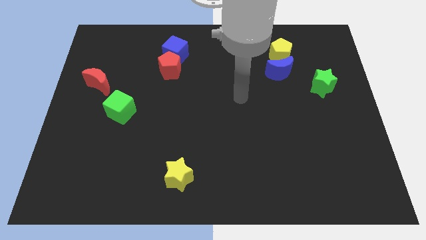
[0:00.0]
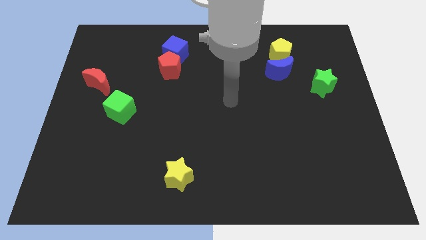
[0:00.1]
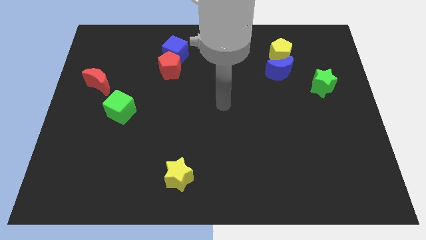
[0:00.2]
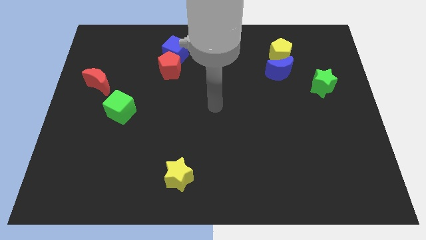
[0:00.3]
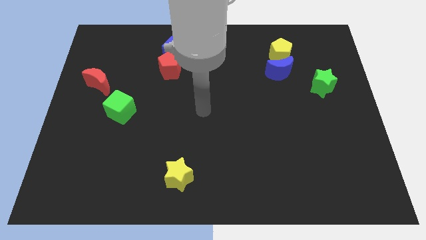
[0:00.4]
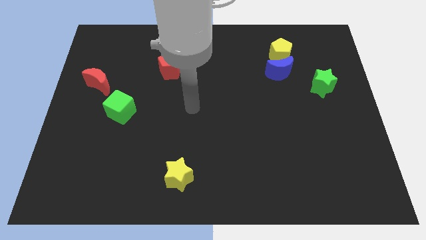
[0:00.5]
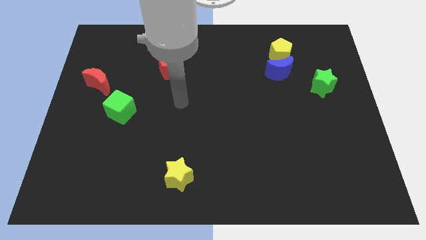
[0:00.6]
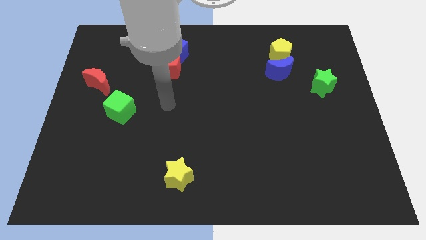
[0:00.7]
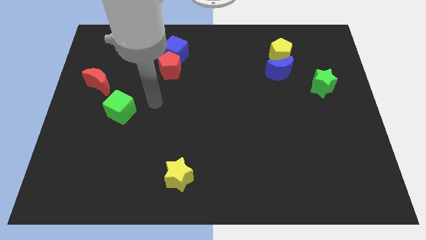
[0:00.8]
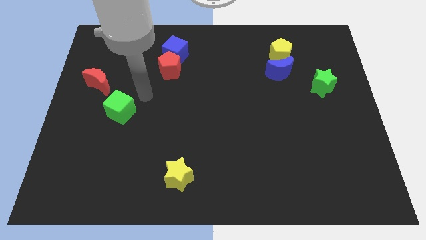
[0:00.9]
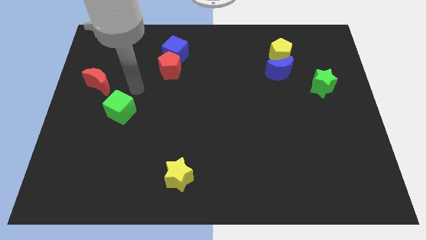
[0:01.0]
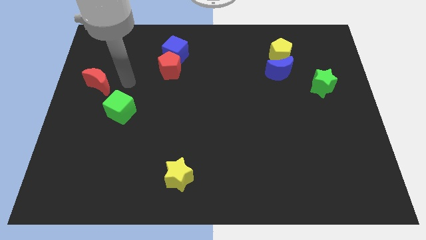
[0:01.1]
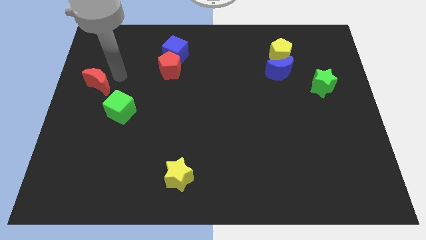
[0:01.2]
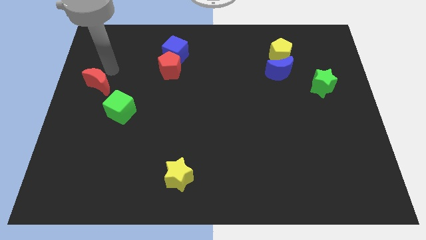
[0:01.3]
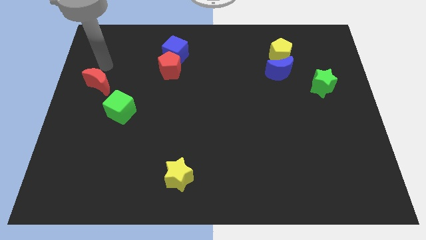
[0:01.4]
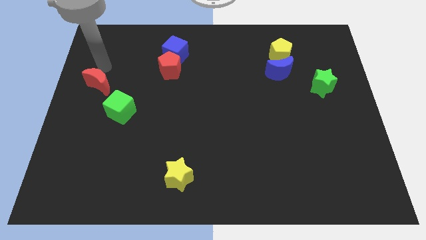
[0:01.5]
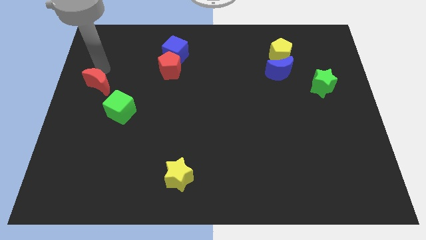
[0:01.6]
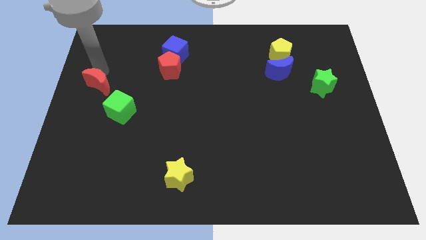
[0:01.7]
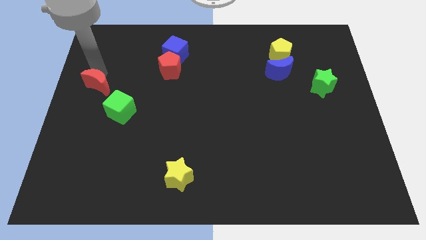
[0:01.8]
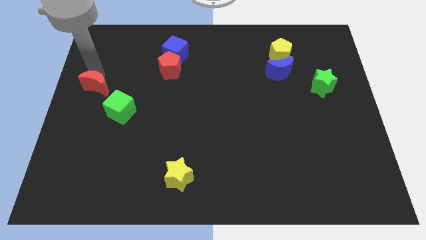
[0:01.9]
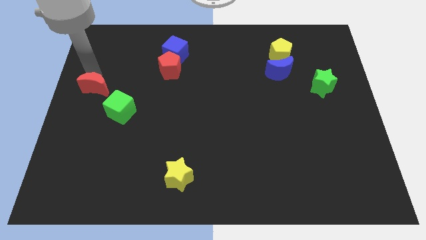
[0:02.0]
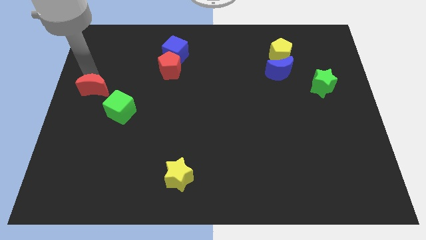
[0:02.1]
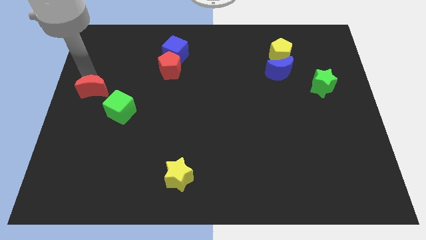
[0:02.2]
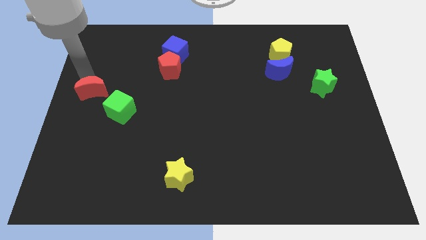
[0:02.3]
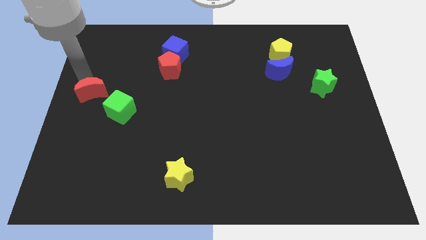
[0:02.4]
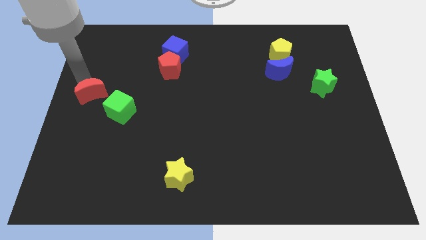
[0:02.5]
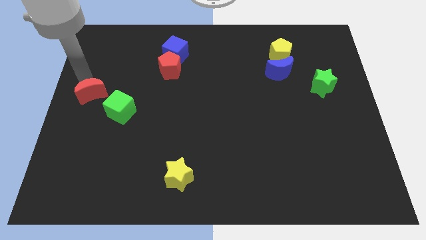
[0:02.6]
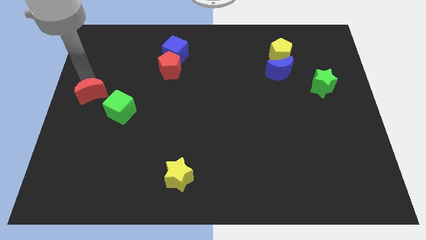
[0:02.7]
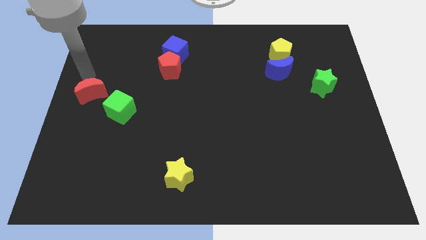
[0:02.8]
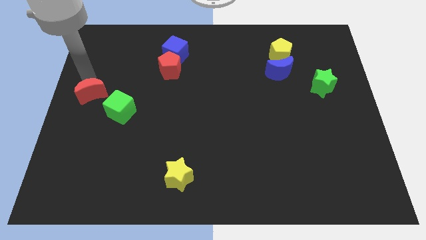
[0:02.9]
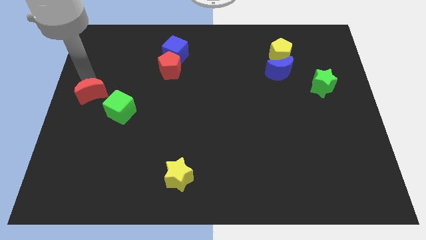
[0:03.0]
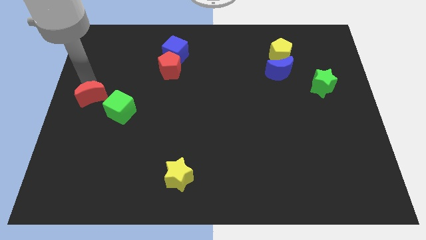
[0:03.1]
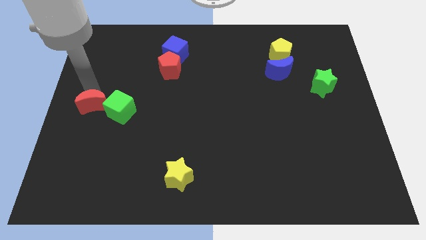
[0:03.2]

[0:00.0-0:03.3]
slightly slide the red moon down

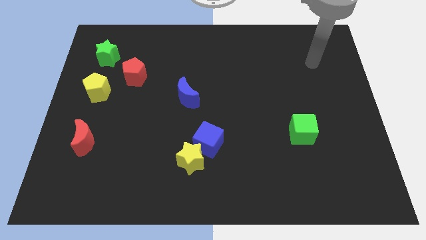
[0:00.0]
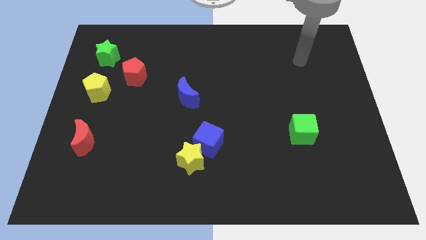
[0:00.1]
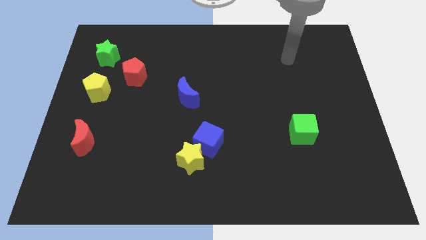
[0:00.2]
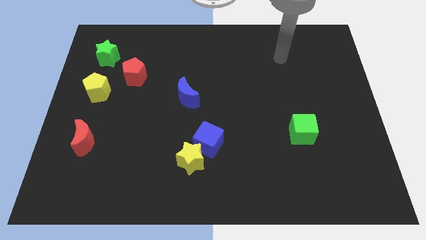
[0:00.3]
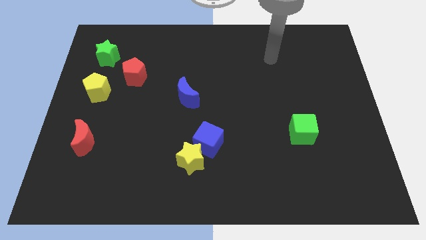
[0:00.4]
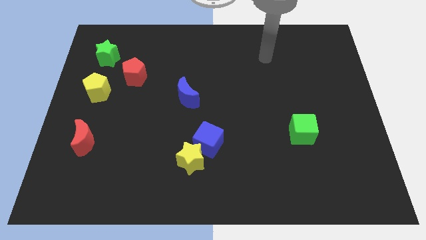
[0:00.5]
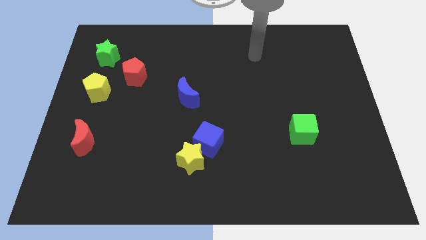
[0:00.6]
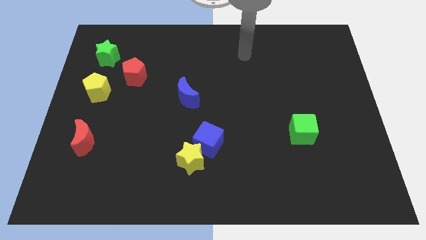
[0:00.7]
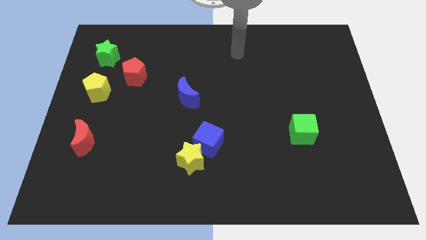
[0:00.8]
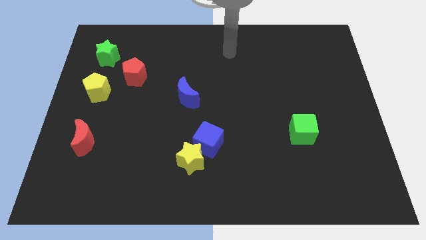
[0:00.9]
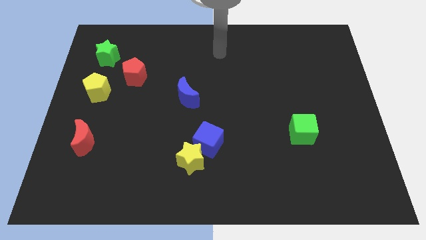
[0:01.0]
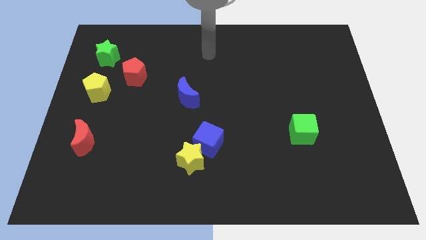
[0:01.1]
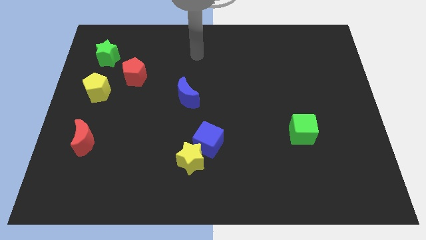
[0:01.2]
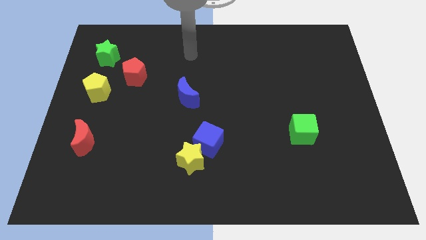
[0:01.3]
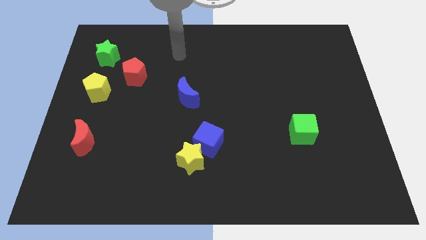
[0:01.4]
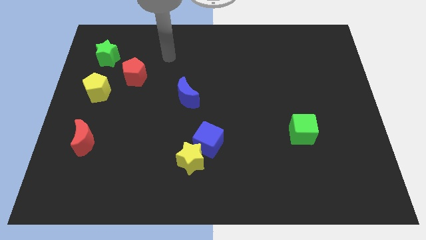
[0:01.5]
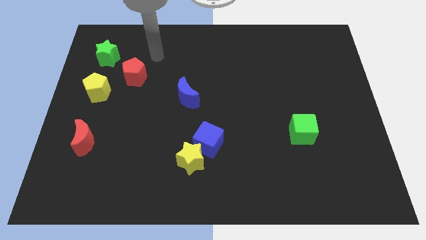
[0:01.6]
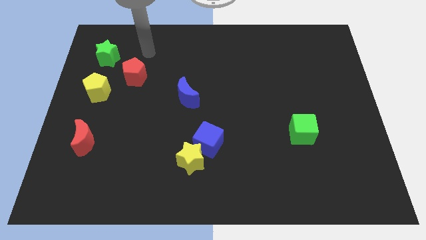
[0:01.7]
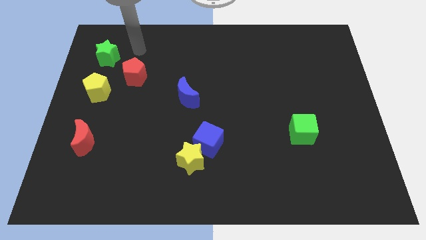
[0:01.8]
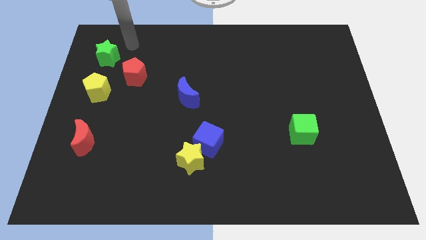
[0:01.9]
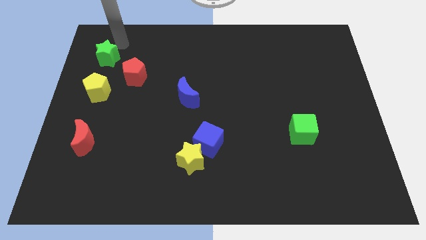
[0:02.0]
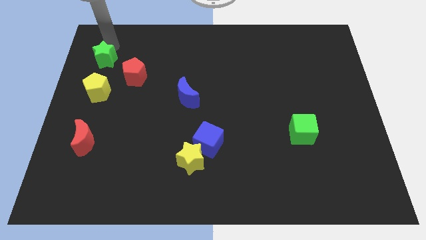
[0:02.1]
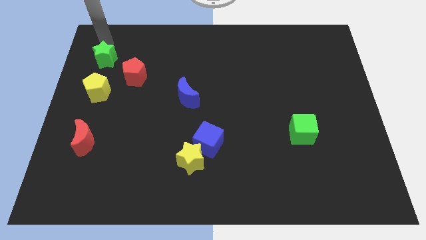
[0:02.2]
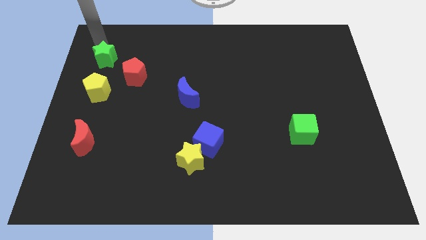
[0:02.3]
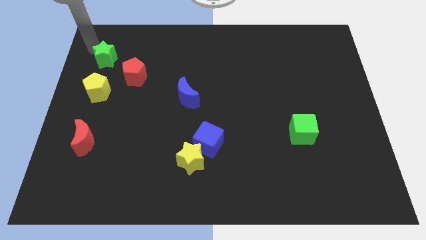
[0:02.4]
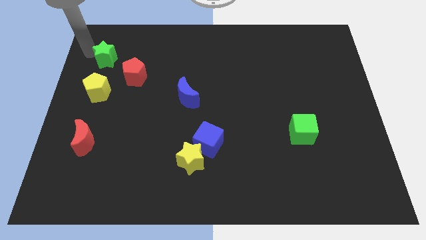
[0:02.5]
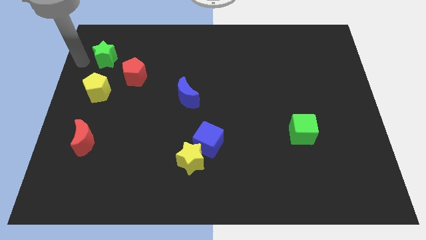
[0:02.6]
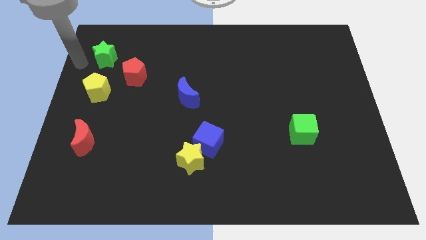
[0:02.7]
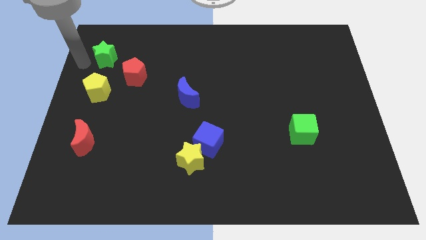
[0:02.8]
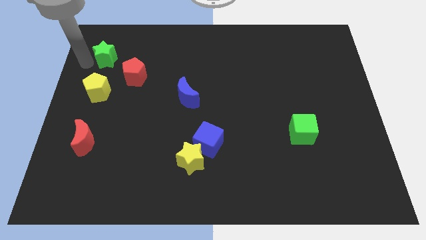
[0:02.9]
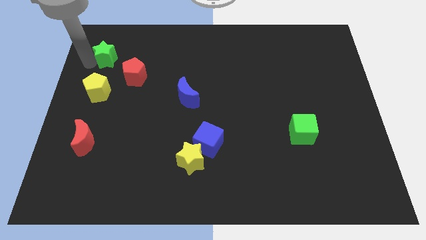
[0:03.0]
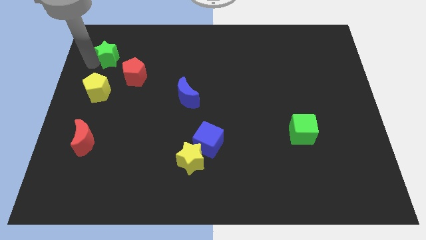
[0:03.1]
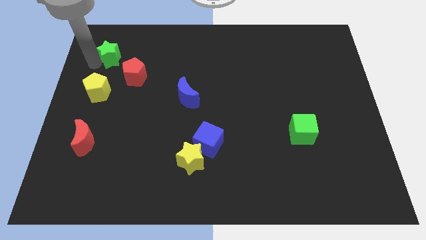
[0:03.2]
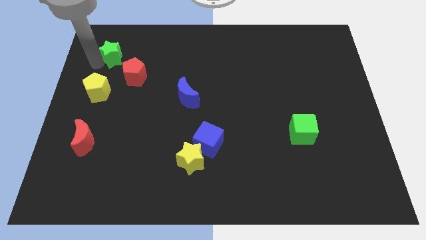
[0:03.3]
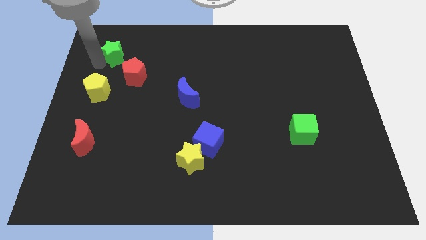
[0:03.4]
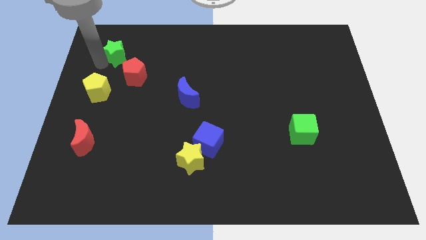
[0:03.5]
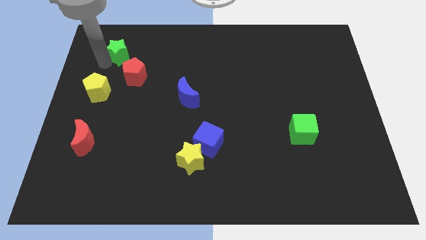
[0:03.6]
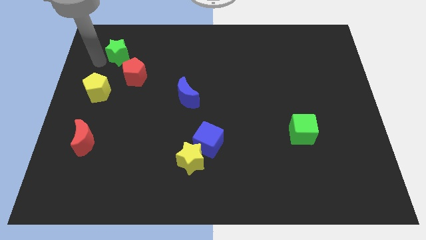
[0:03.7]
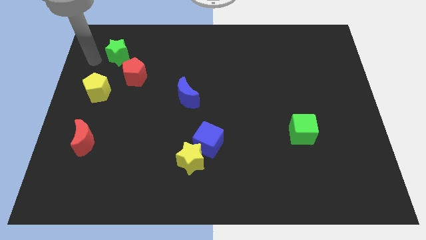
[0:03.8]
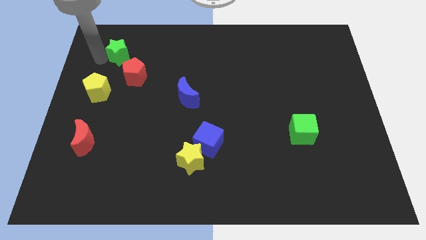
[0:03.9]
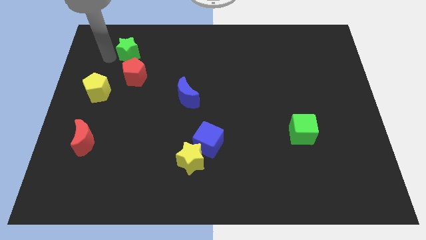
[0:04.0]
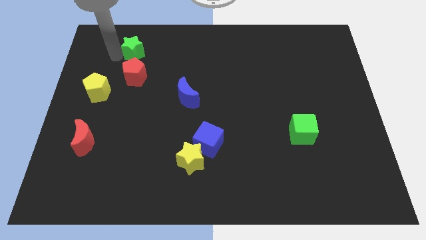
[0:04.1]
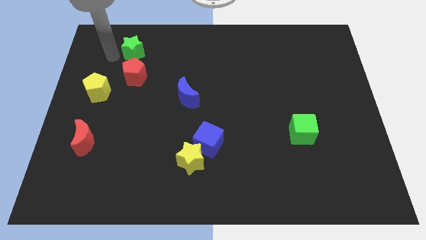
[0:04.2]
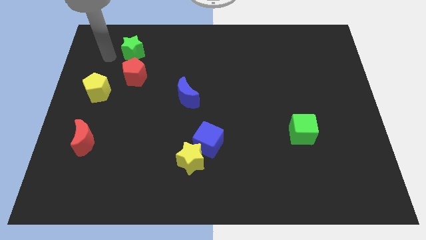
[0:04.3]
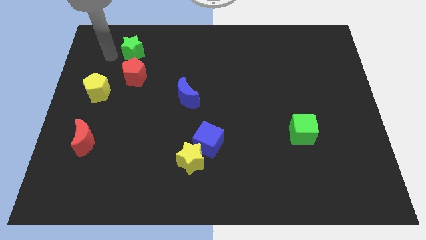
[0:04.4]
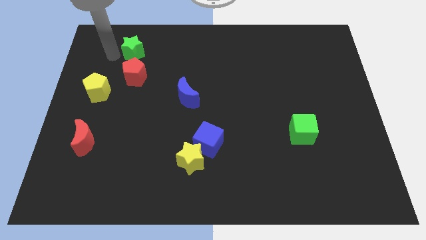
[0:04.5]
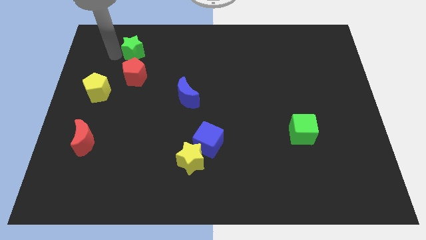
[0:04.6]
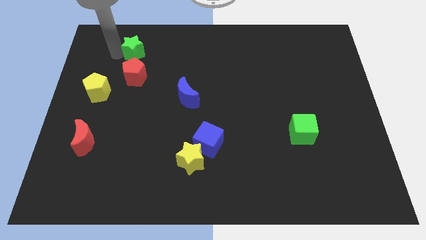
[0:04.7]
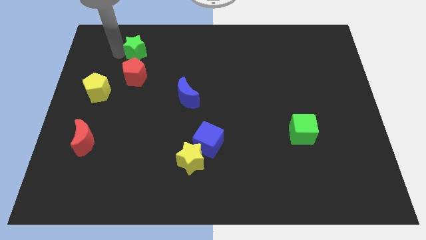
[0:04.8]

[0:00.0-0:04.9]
slightly slide the green star right
